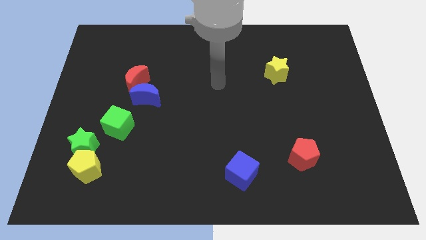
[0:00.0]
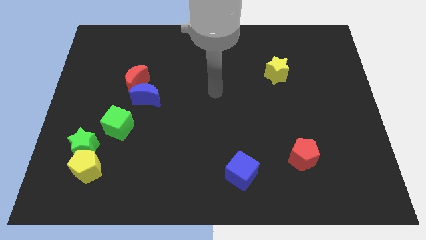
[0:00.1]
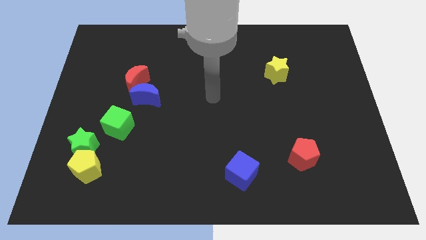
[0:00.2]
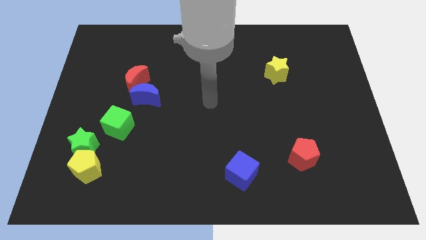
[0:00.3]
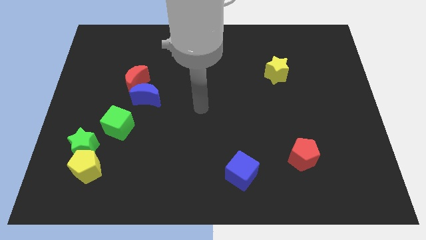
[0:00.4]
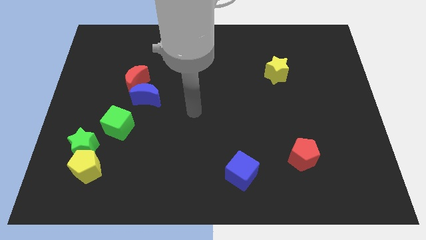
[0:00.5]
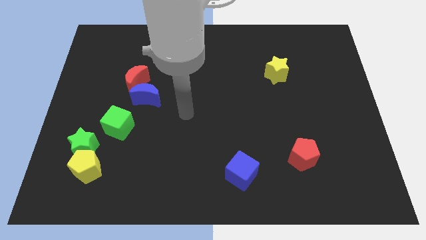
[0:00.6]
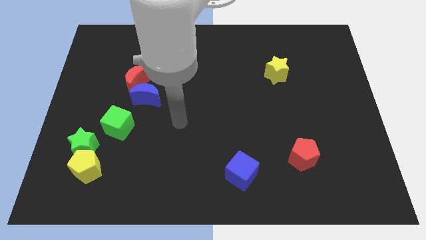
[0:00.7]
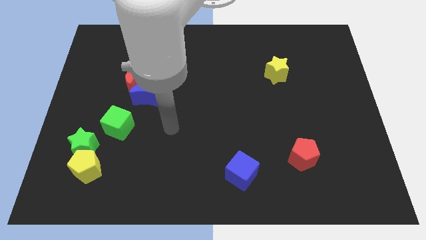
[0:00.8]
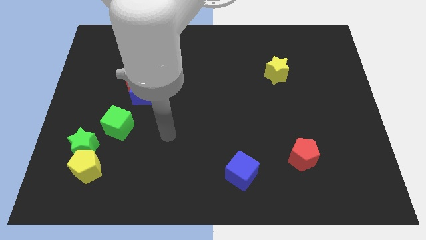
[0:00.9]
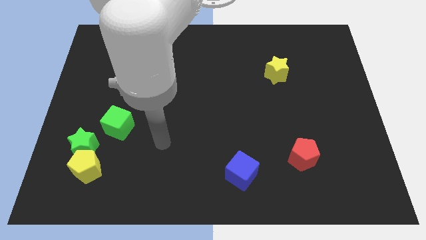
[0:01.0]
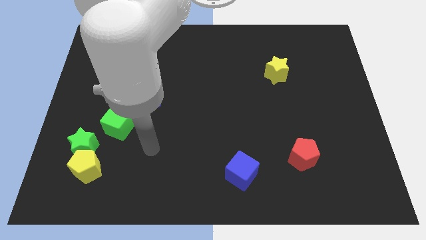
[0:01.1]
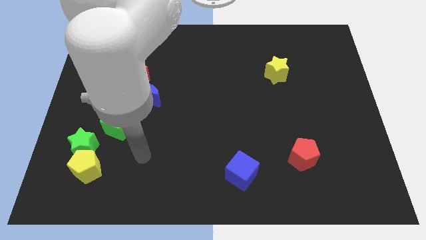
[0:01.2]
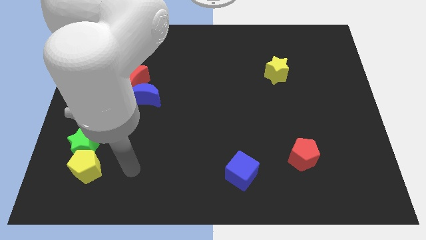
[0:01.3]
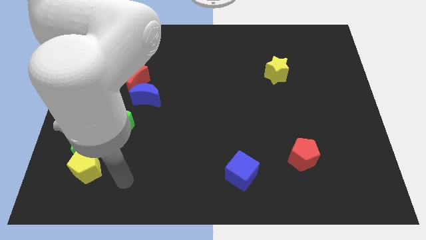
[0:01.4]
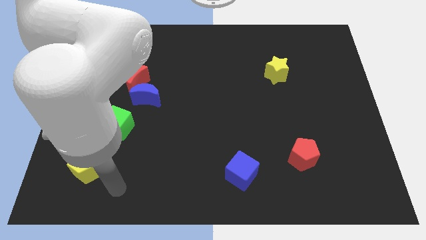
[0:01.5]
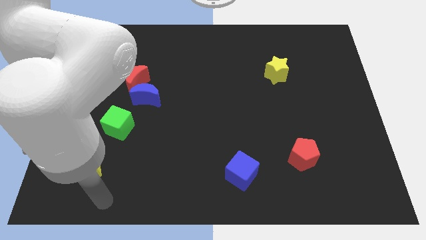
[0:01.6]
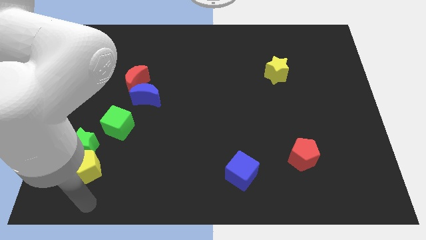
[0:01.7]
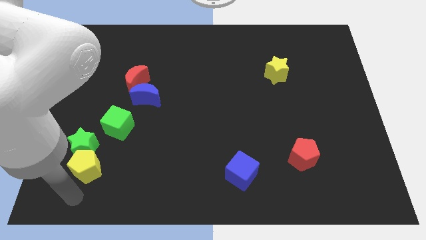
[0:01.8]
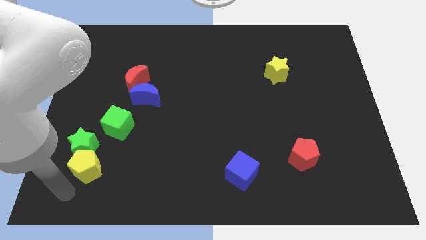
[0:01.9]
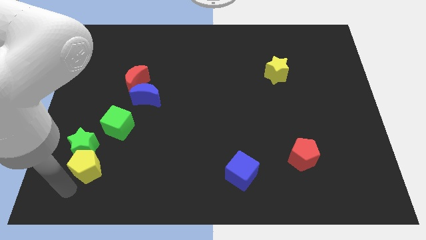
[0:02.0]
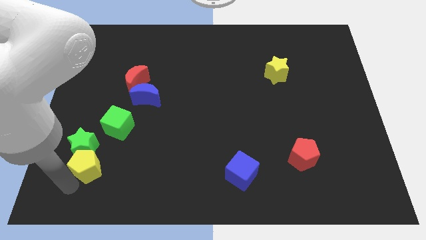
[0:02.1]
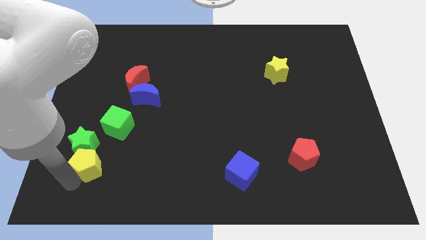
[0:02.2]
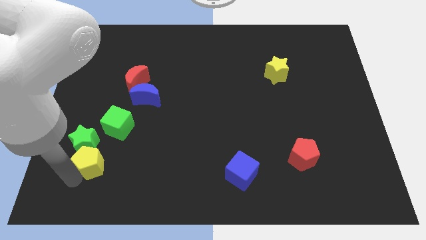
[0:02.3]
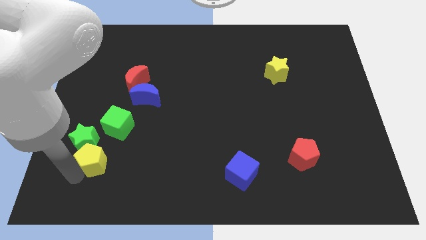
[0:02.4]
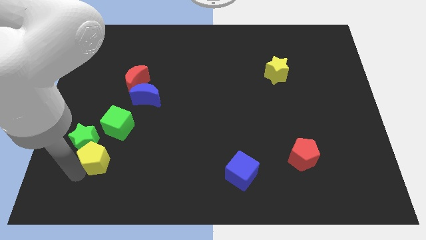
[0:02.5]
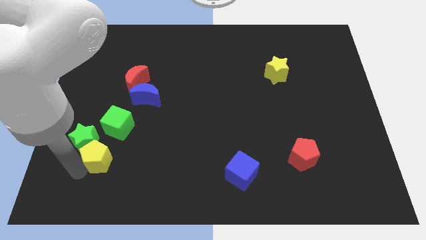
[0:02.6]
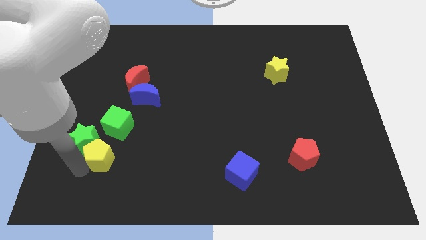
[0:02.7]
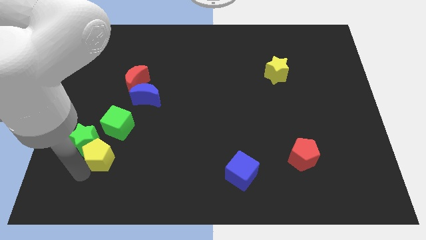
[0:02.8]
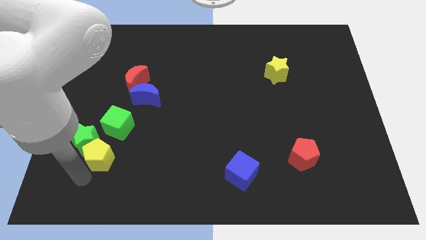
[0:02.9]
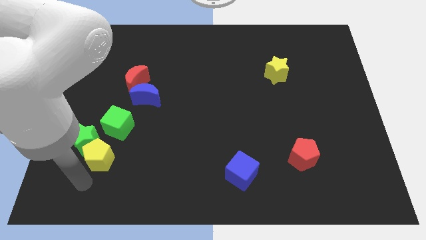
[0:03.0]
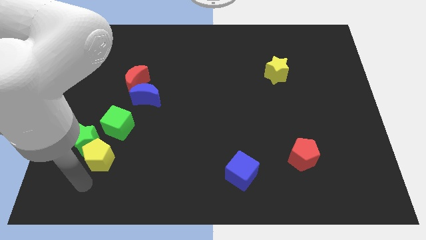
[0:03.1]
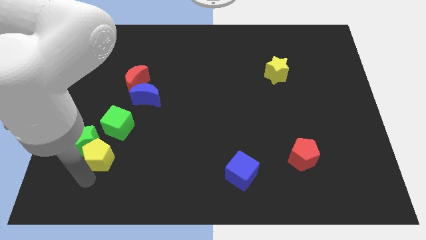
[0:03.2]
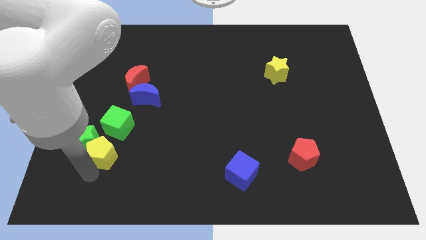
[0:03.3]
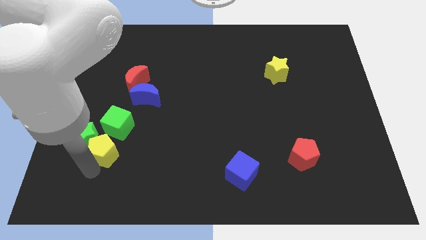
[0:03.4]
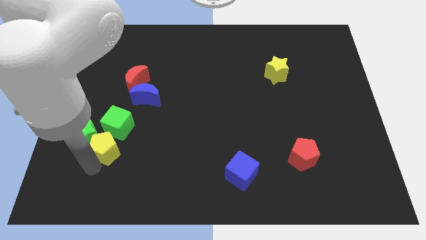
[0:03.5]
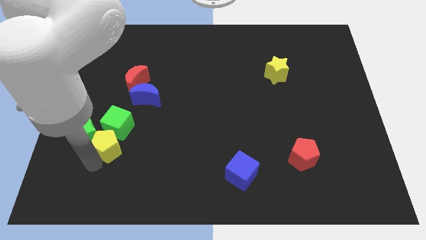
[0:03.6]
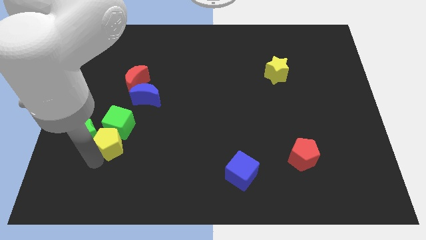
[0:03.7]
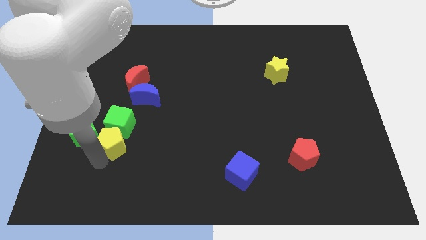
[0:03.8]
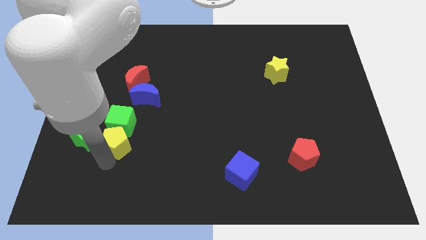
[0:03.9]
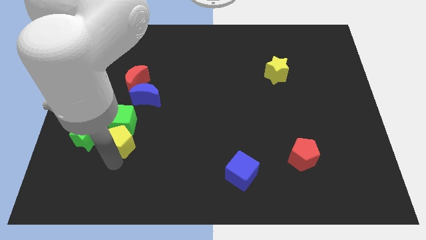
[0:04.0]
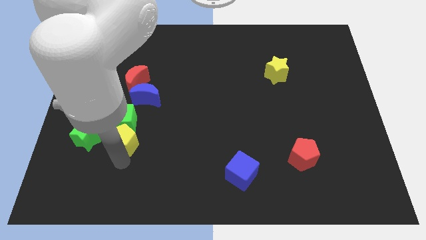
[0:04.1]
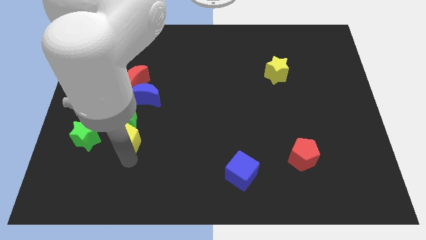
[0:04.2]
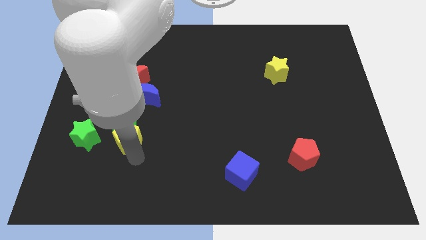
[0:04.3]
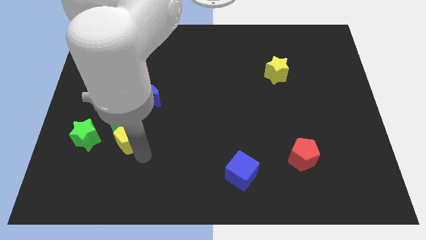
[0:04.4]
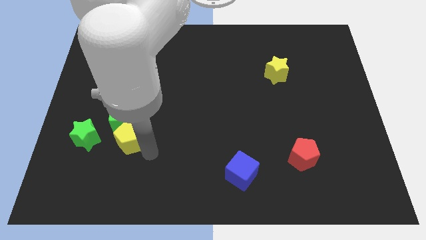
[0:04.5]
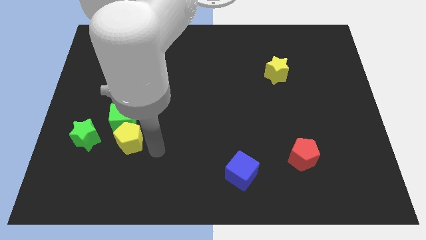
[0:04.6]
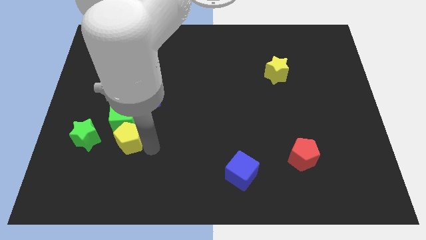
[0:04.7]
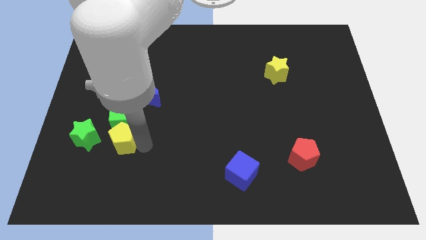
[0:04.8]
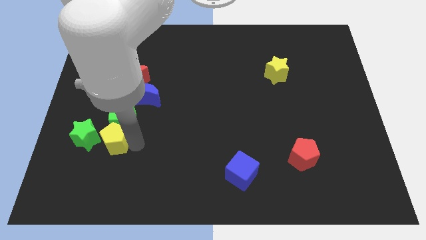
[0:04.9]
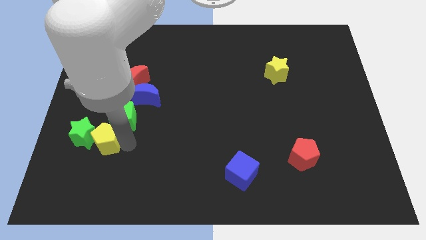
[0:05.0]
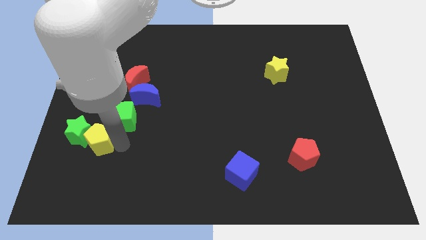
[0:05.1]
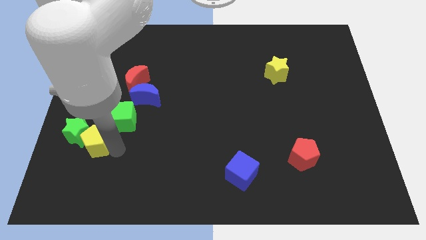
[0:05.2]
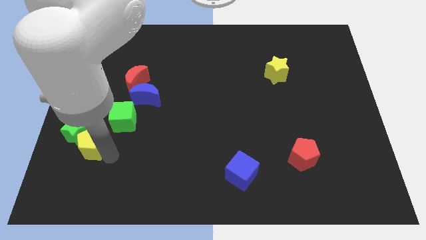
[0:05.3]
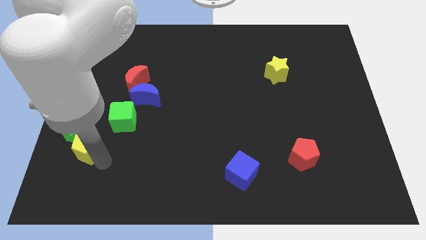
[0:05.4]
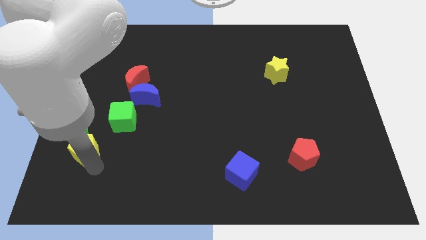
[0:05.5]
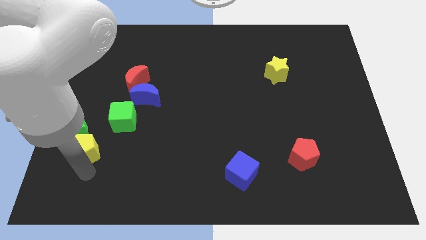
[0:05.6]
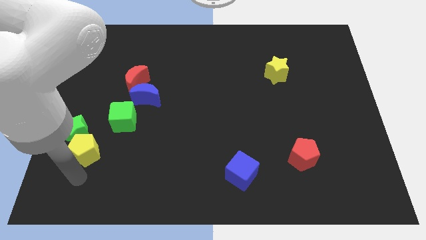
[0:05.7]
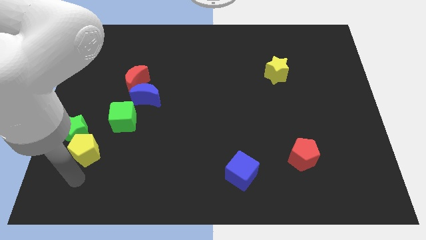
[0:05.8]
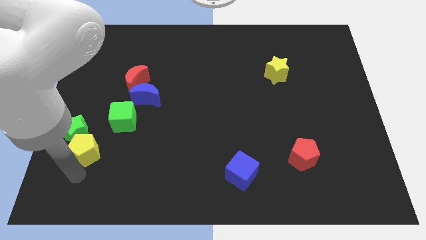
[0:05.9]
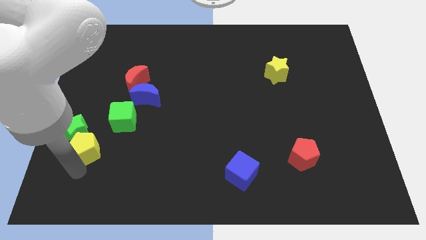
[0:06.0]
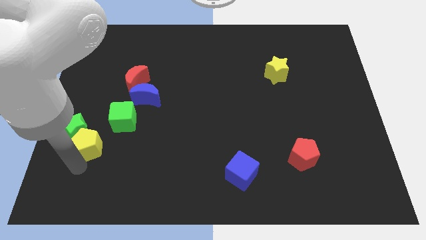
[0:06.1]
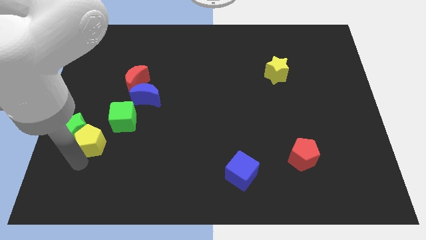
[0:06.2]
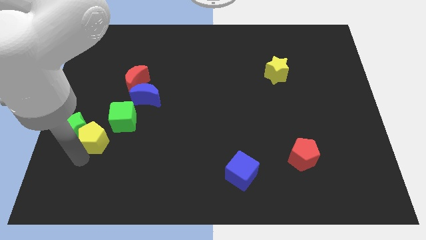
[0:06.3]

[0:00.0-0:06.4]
move the yellow pentagon slightly upwards

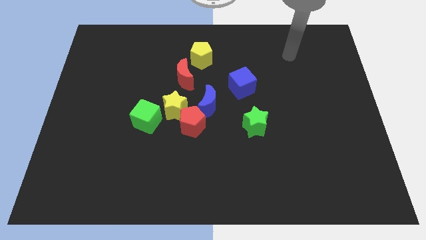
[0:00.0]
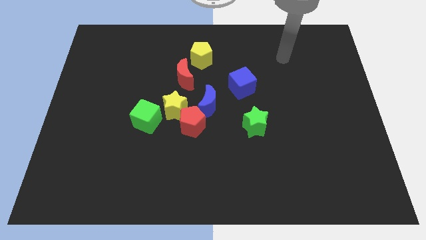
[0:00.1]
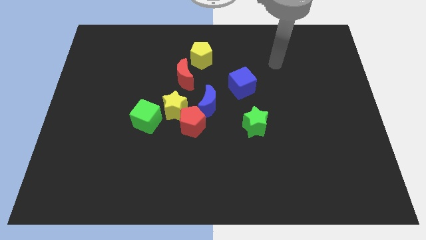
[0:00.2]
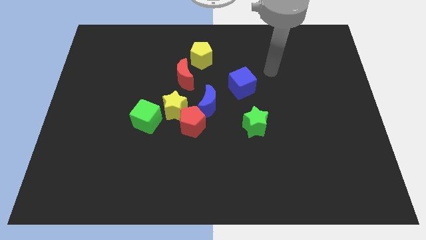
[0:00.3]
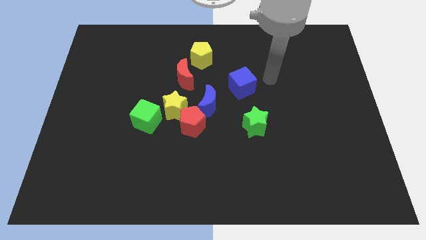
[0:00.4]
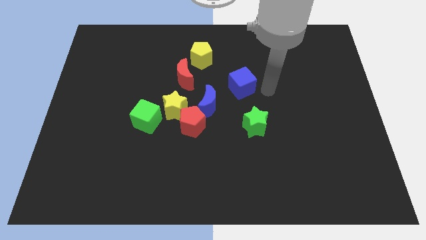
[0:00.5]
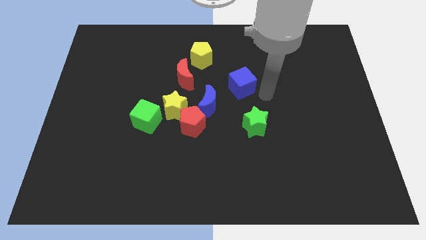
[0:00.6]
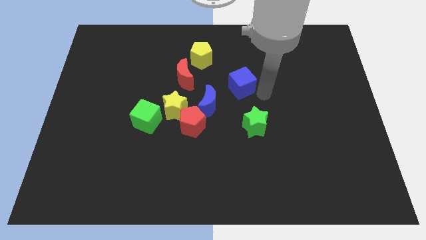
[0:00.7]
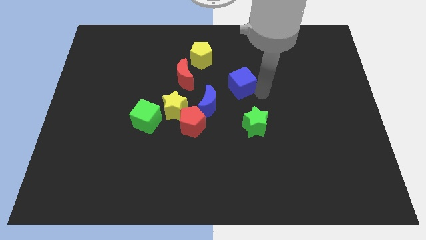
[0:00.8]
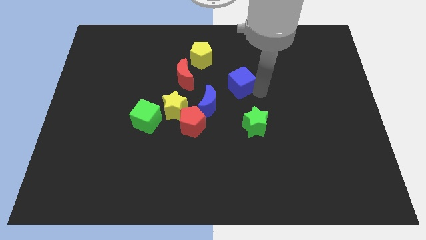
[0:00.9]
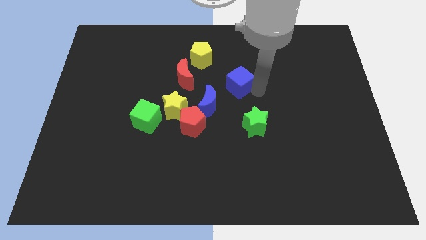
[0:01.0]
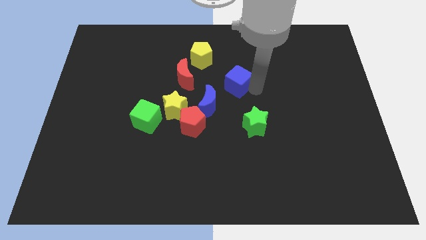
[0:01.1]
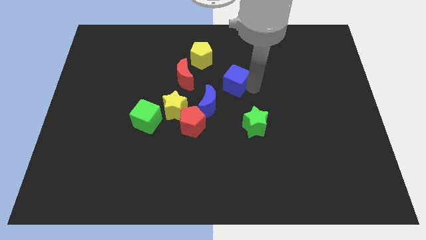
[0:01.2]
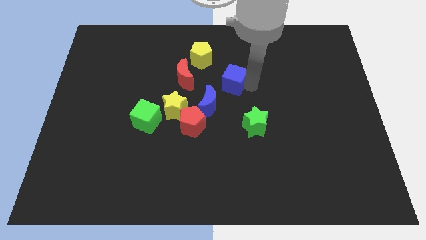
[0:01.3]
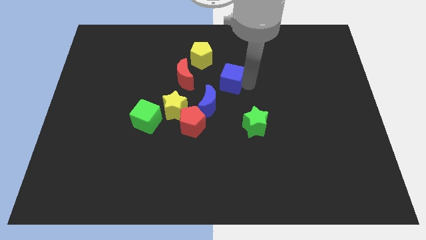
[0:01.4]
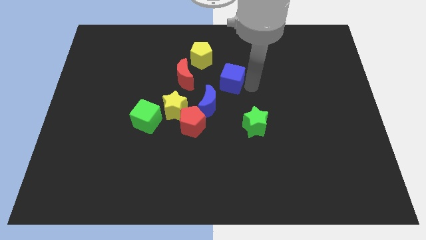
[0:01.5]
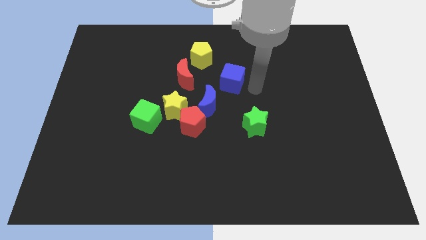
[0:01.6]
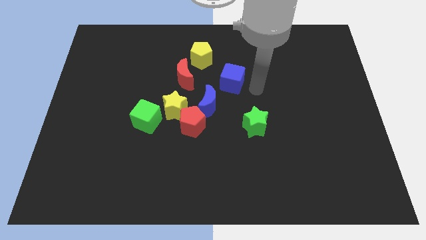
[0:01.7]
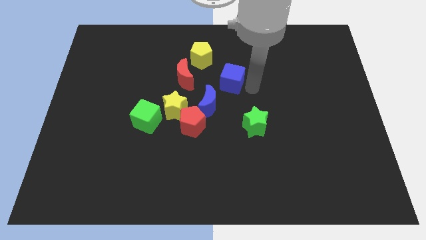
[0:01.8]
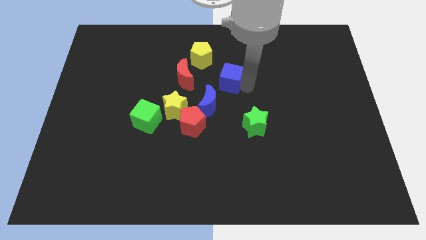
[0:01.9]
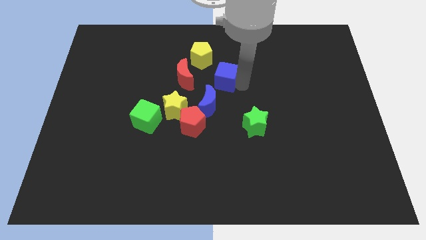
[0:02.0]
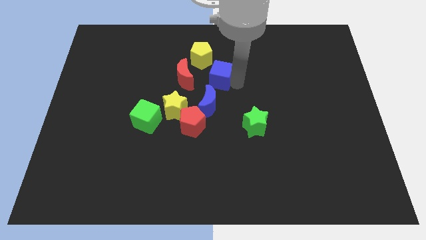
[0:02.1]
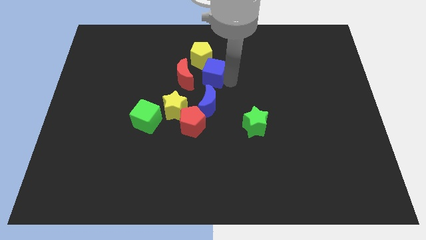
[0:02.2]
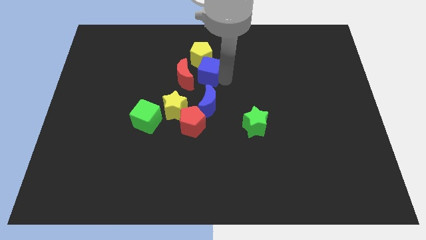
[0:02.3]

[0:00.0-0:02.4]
slide the blue cube a little bit to the left
